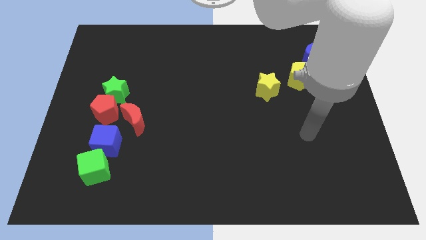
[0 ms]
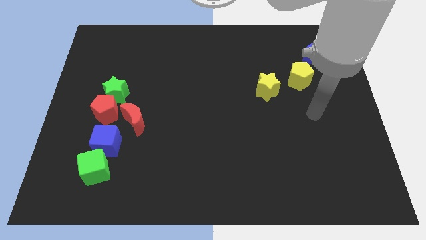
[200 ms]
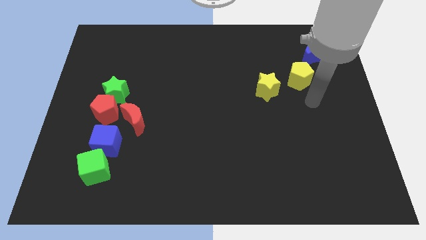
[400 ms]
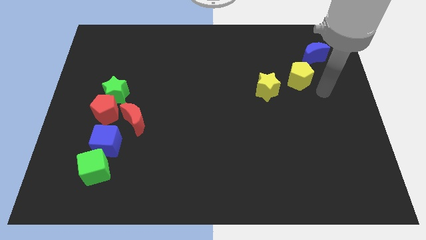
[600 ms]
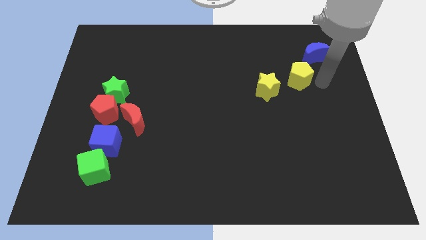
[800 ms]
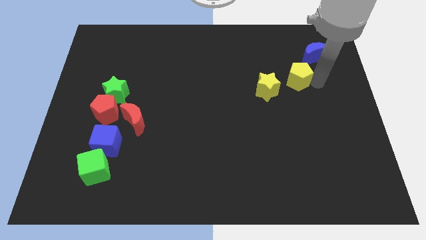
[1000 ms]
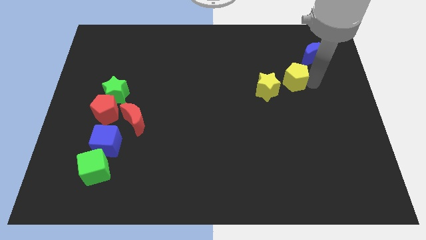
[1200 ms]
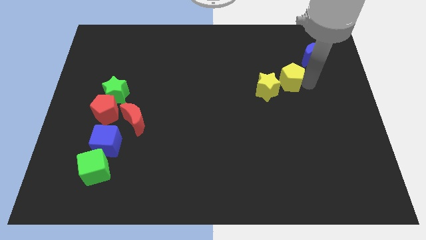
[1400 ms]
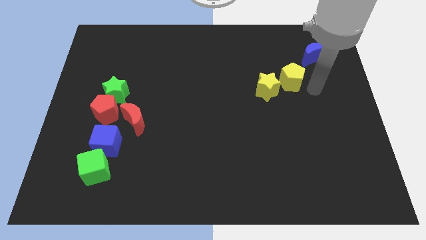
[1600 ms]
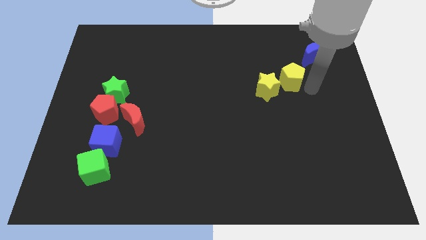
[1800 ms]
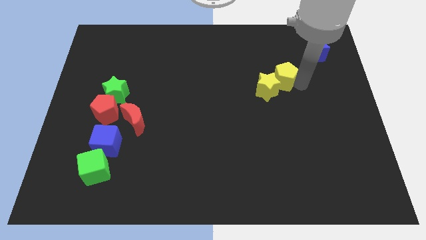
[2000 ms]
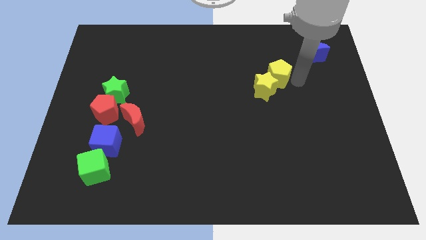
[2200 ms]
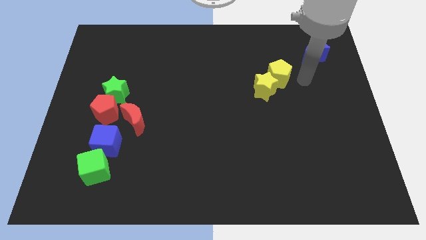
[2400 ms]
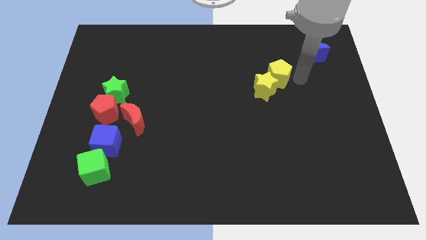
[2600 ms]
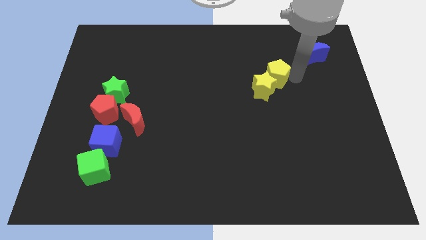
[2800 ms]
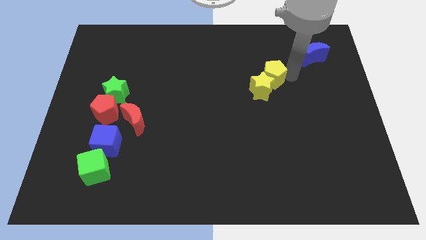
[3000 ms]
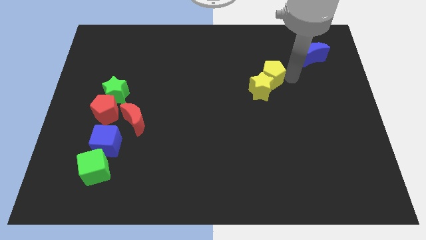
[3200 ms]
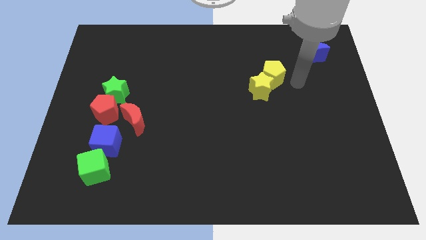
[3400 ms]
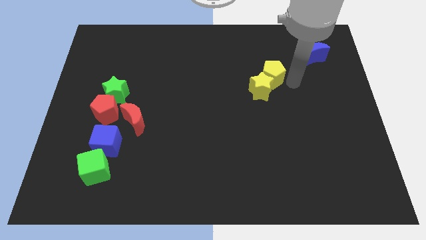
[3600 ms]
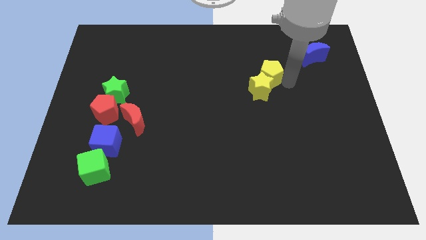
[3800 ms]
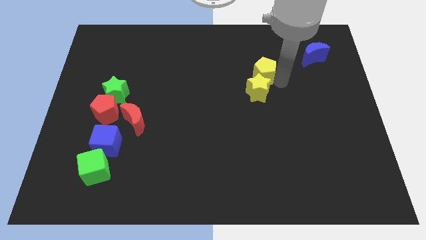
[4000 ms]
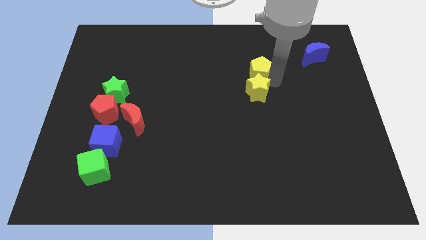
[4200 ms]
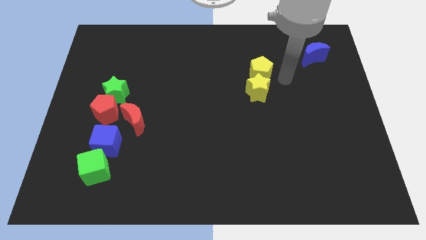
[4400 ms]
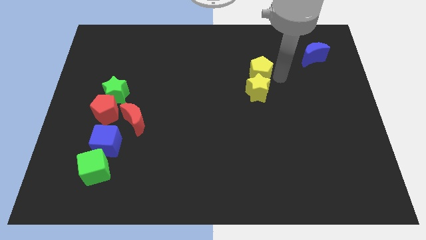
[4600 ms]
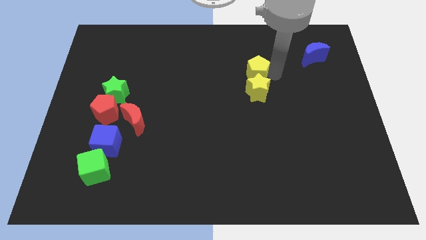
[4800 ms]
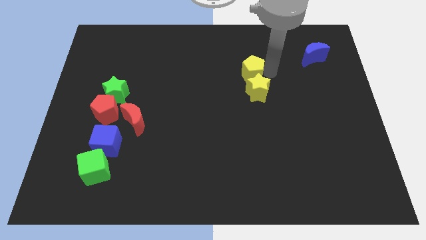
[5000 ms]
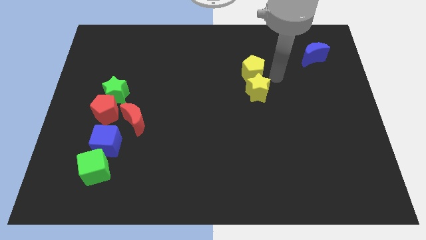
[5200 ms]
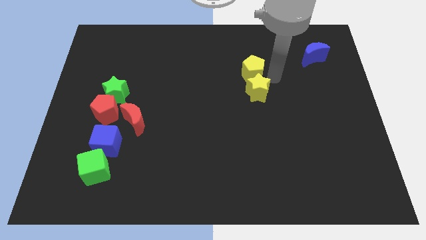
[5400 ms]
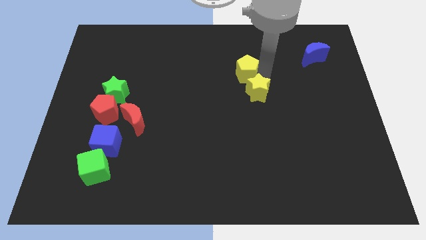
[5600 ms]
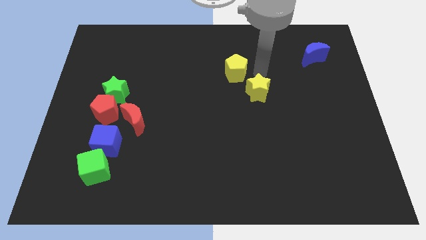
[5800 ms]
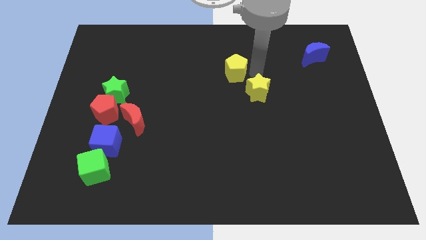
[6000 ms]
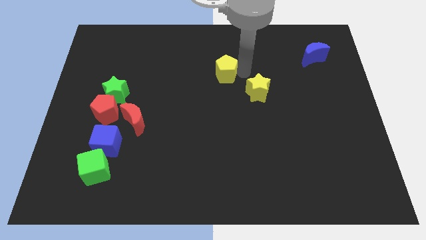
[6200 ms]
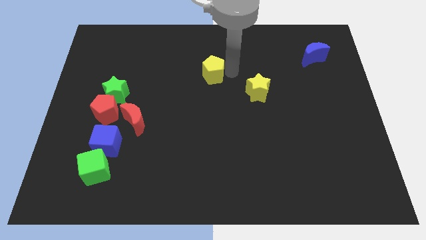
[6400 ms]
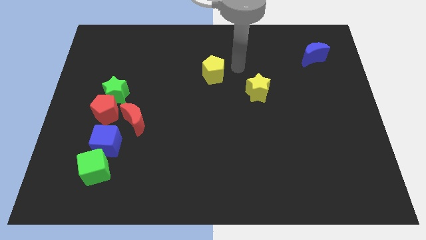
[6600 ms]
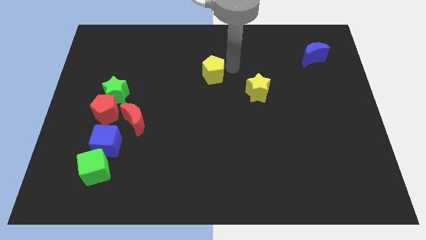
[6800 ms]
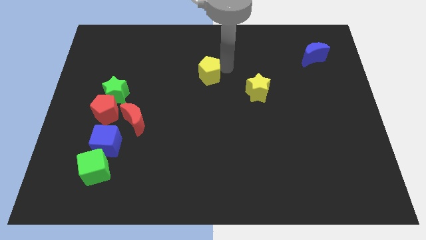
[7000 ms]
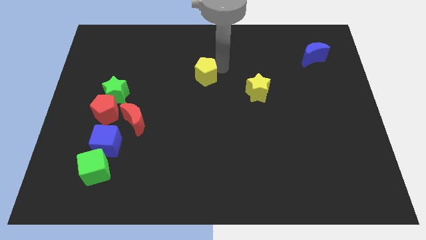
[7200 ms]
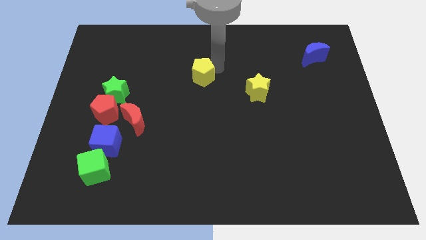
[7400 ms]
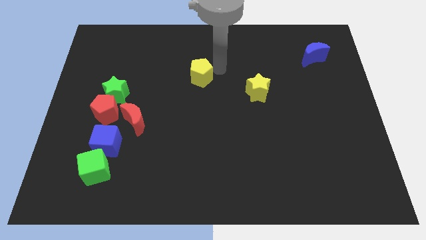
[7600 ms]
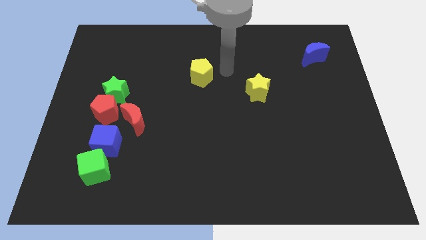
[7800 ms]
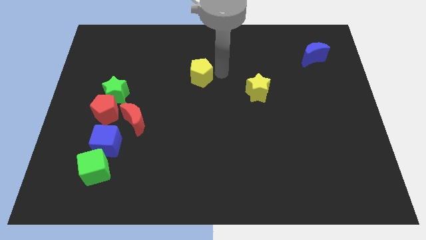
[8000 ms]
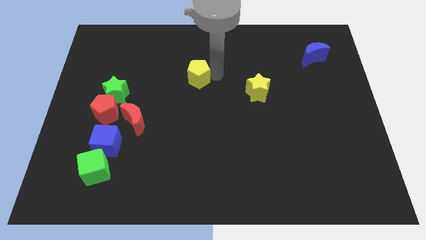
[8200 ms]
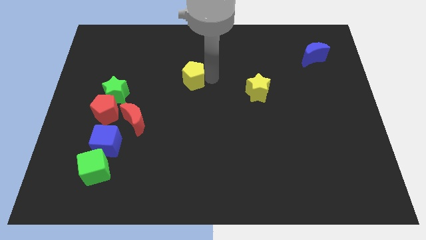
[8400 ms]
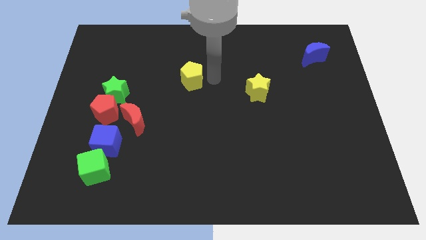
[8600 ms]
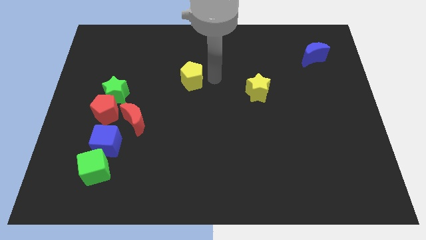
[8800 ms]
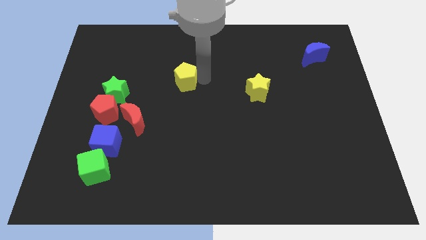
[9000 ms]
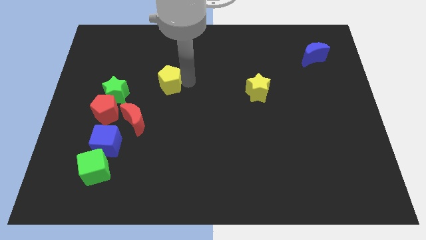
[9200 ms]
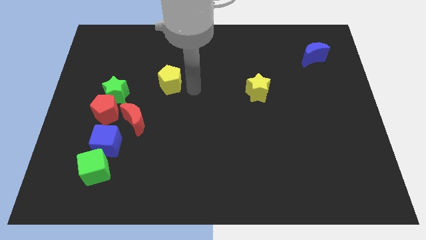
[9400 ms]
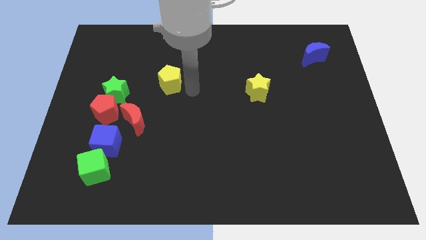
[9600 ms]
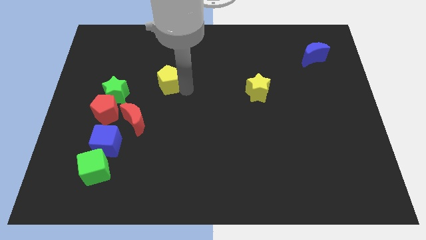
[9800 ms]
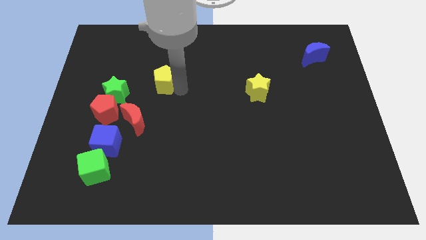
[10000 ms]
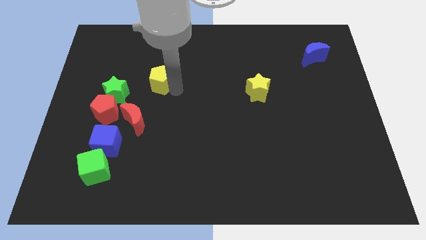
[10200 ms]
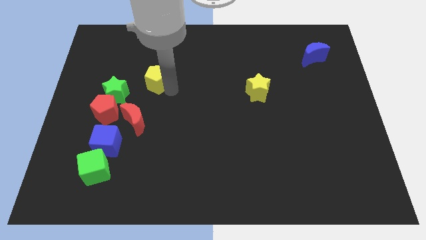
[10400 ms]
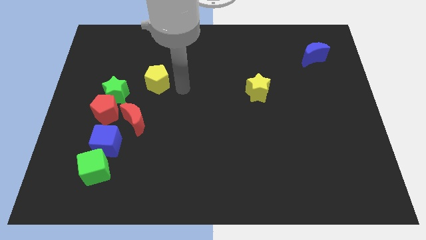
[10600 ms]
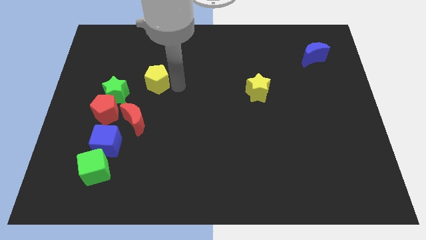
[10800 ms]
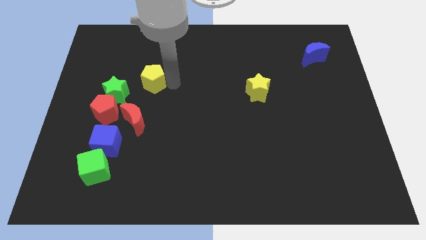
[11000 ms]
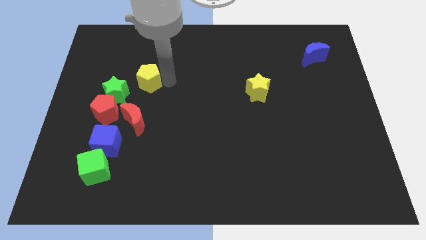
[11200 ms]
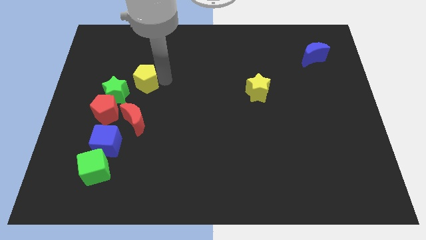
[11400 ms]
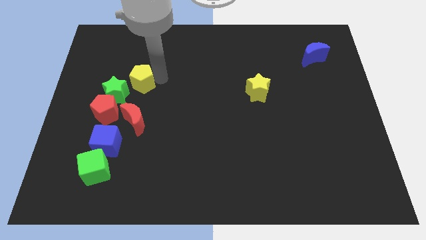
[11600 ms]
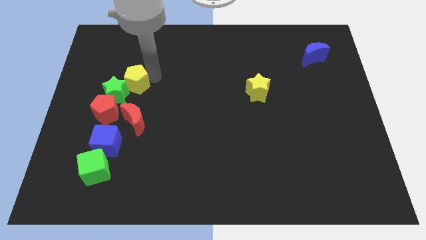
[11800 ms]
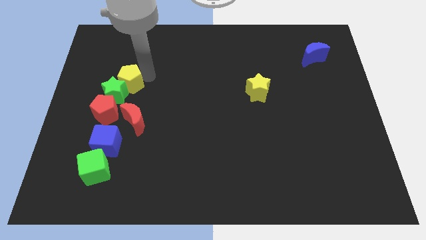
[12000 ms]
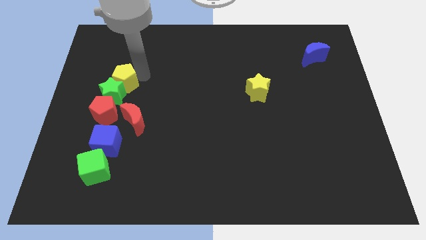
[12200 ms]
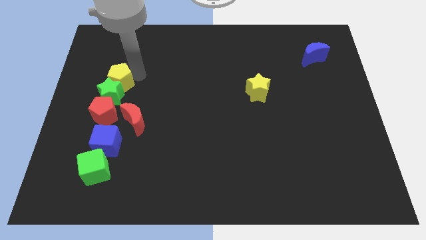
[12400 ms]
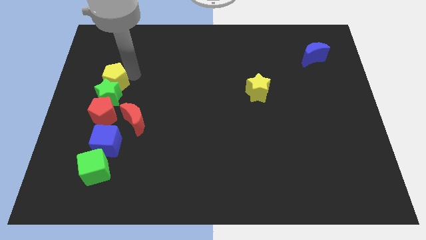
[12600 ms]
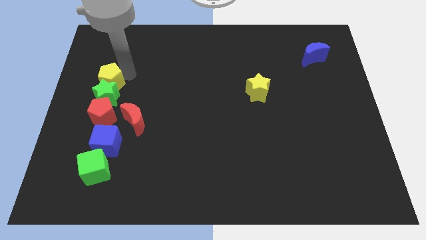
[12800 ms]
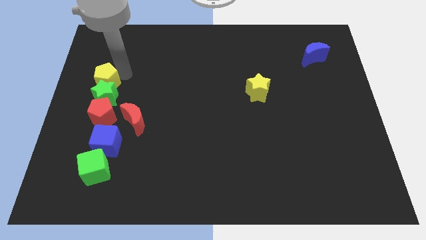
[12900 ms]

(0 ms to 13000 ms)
put the yellow pentagon to the center left

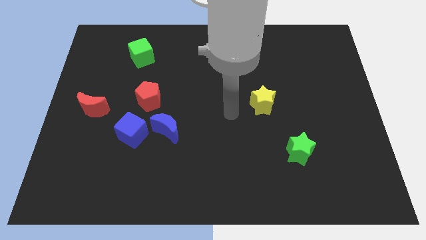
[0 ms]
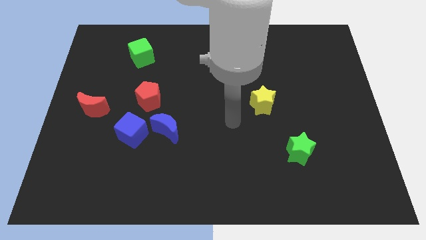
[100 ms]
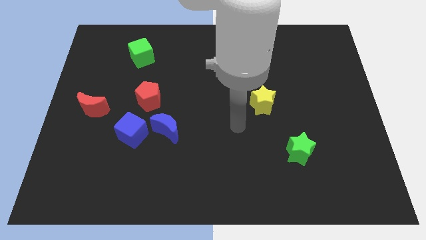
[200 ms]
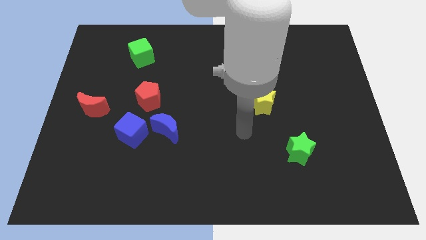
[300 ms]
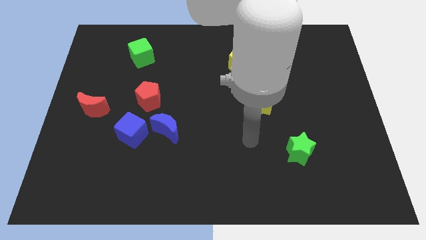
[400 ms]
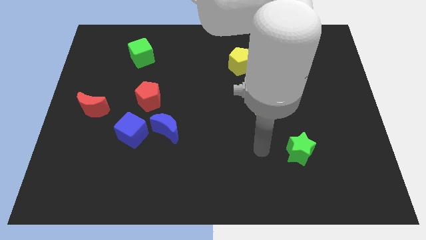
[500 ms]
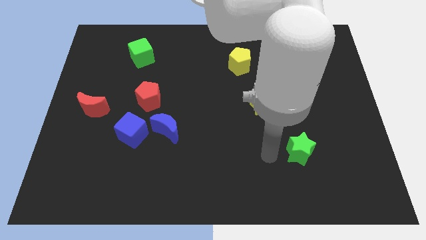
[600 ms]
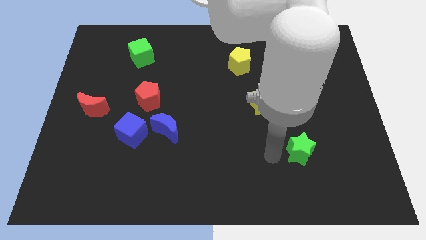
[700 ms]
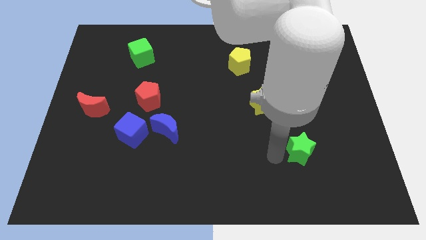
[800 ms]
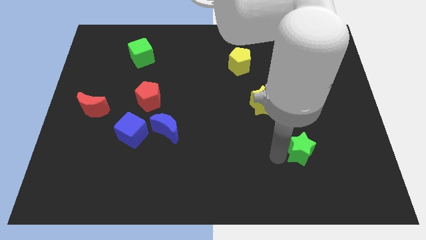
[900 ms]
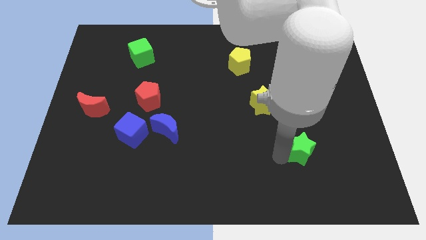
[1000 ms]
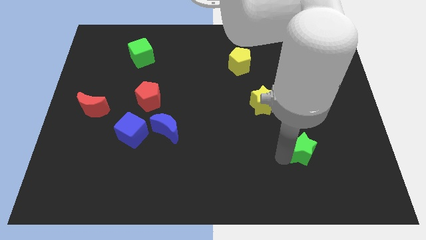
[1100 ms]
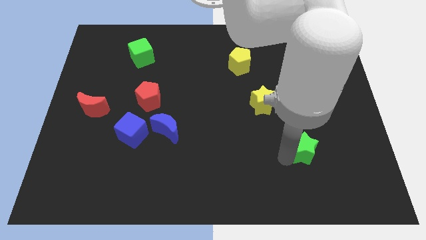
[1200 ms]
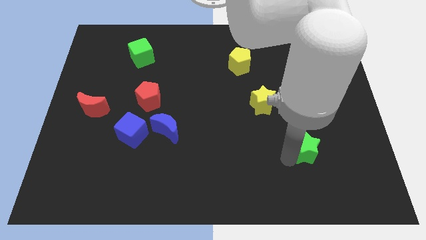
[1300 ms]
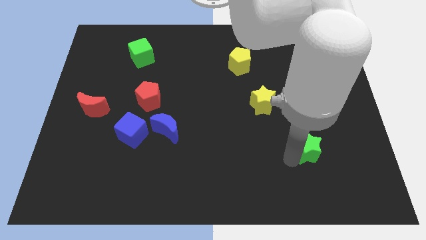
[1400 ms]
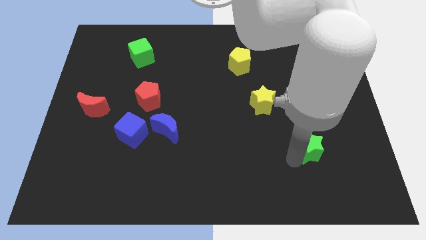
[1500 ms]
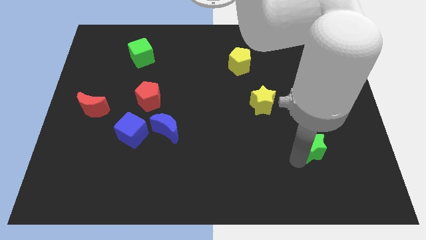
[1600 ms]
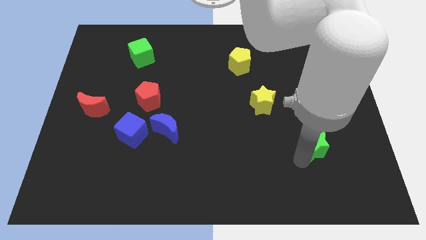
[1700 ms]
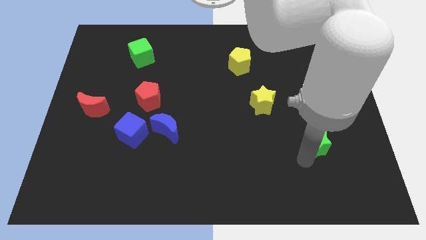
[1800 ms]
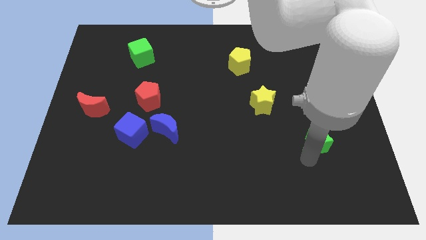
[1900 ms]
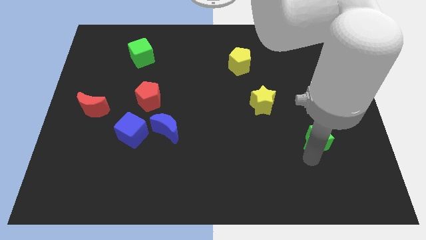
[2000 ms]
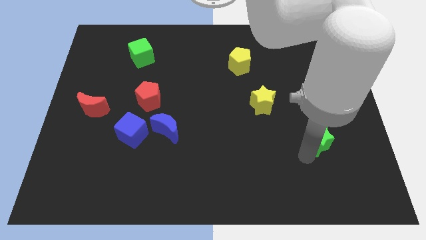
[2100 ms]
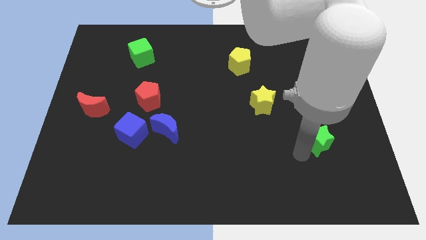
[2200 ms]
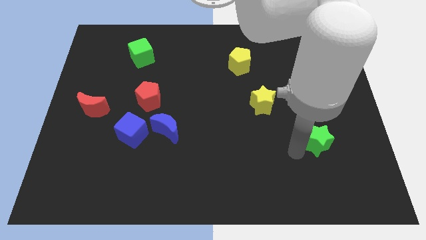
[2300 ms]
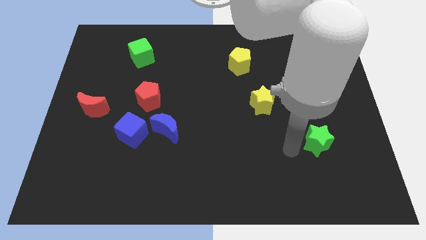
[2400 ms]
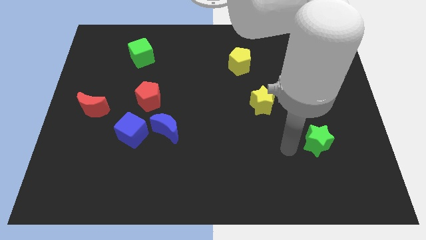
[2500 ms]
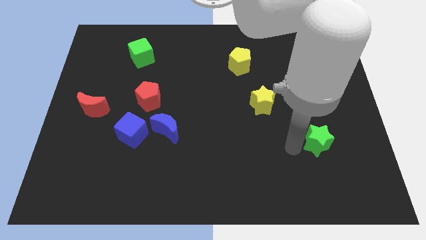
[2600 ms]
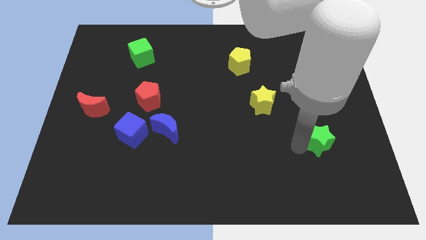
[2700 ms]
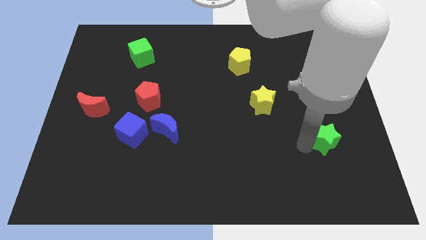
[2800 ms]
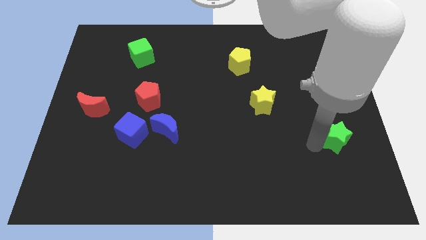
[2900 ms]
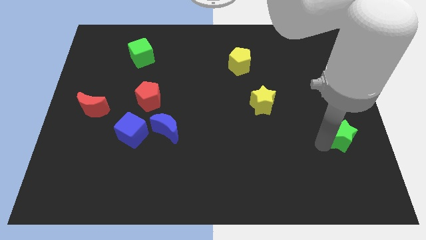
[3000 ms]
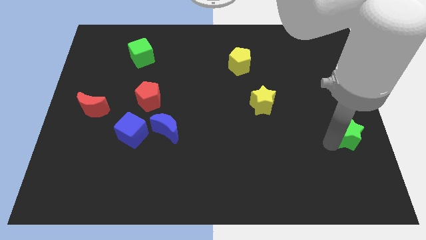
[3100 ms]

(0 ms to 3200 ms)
push the green star to the center right
